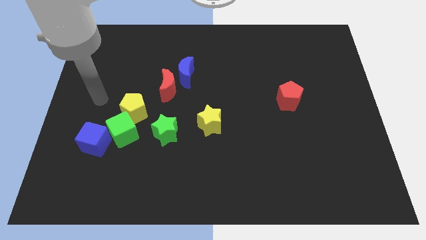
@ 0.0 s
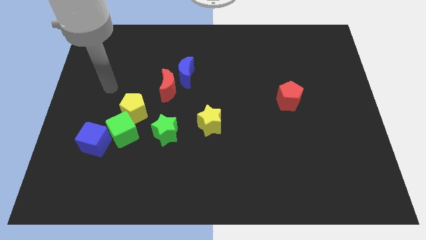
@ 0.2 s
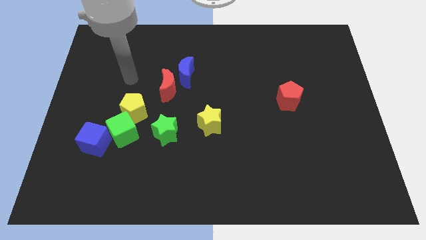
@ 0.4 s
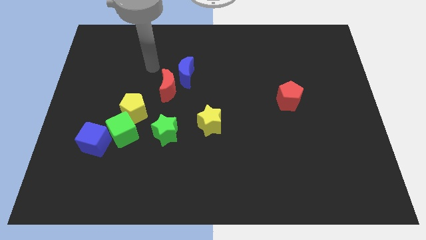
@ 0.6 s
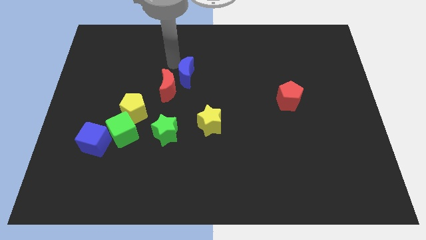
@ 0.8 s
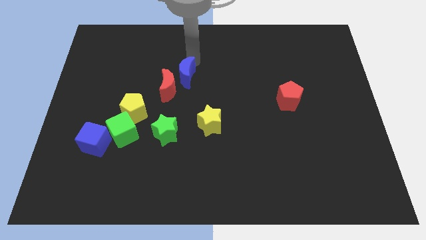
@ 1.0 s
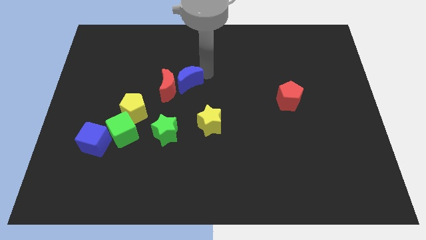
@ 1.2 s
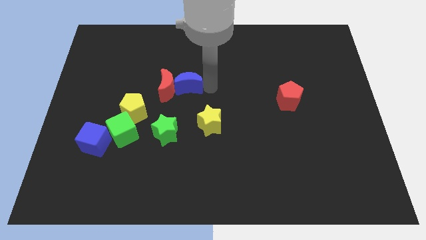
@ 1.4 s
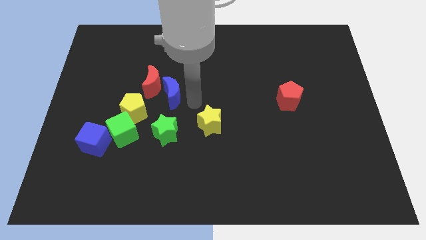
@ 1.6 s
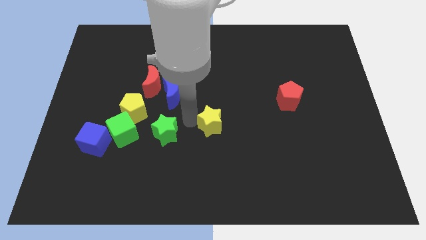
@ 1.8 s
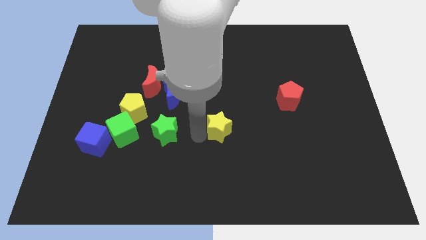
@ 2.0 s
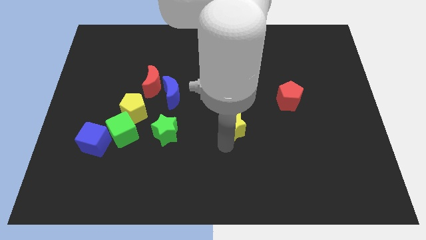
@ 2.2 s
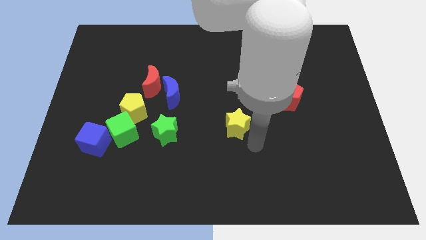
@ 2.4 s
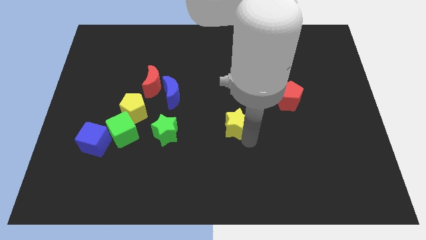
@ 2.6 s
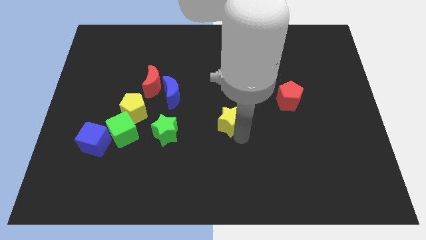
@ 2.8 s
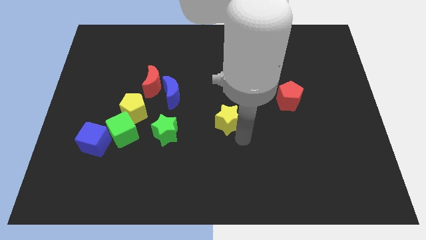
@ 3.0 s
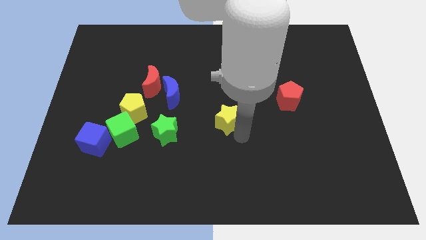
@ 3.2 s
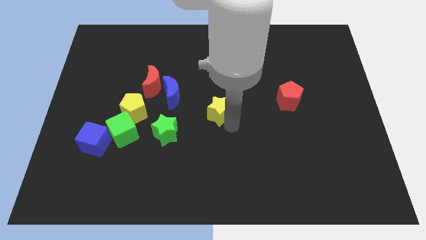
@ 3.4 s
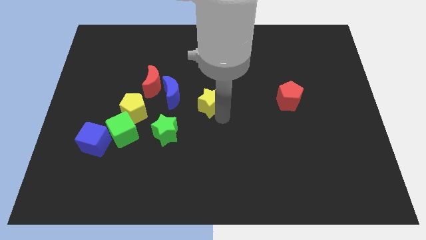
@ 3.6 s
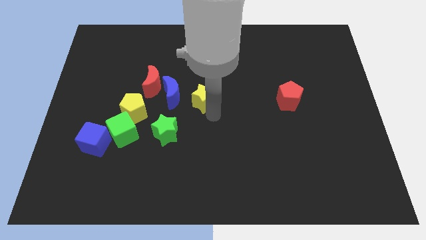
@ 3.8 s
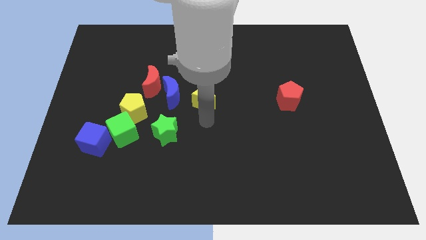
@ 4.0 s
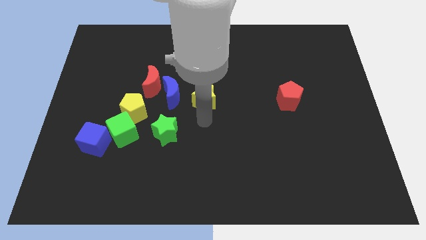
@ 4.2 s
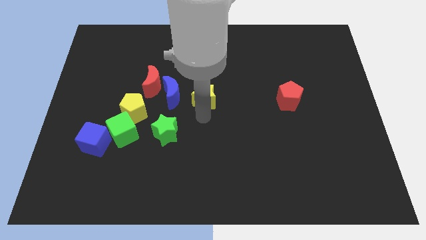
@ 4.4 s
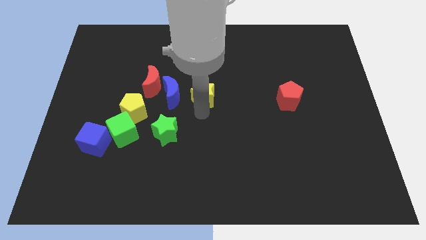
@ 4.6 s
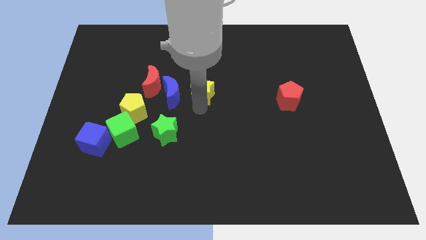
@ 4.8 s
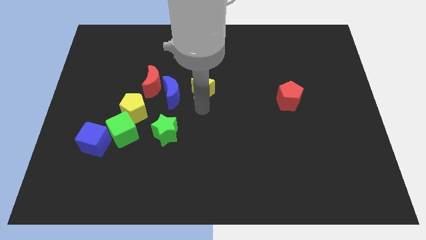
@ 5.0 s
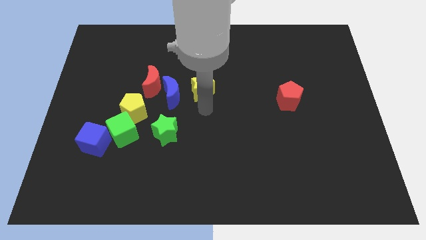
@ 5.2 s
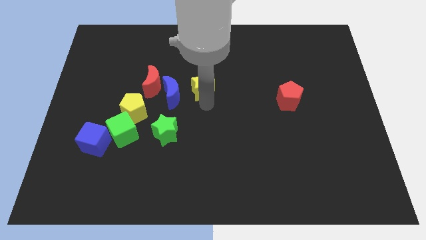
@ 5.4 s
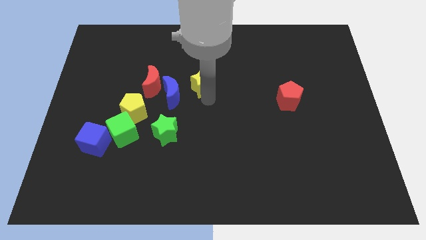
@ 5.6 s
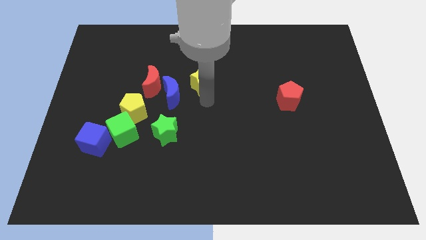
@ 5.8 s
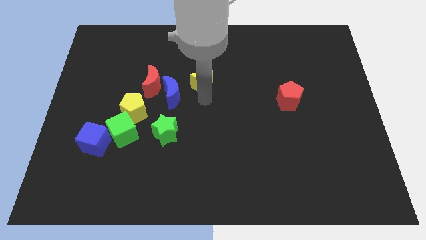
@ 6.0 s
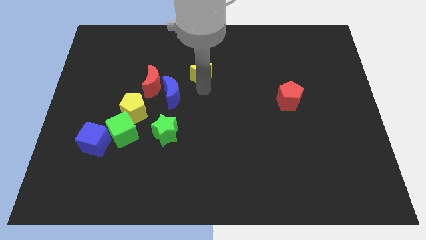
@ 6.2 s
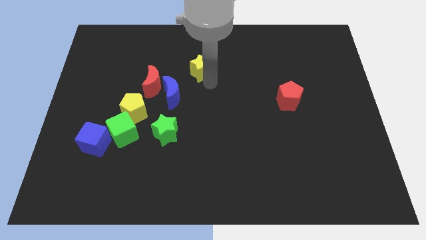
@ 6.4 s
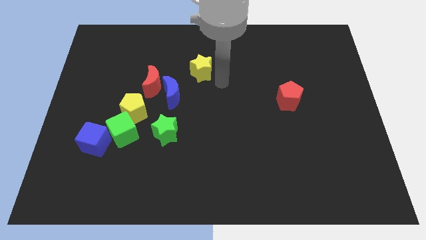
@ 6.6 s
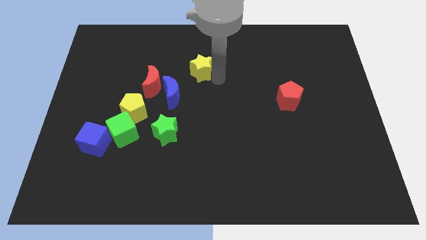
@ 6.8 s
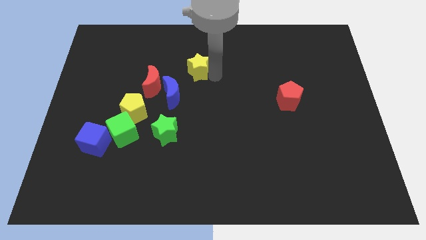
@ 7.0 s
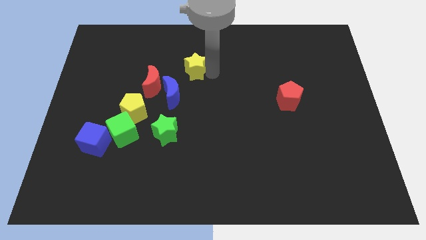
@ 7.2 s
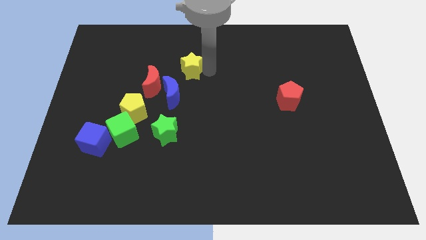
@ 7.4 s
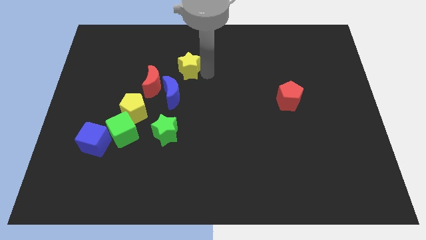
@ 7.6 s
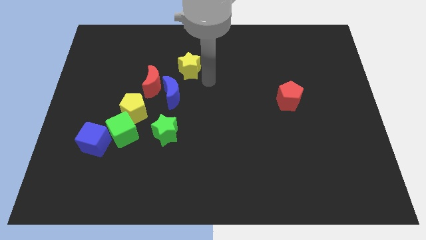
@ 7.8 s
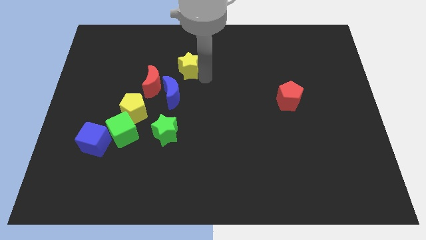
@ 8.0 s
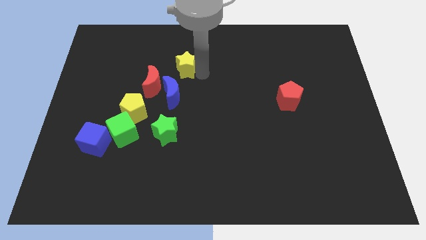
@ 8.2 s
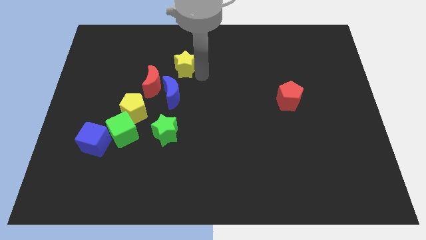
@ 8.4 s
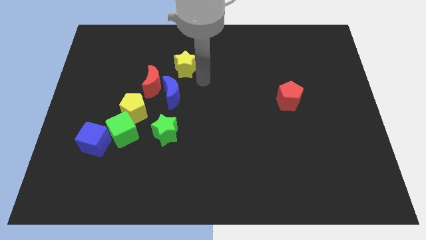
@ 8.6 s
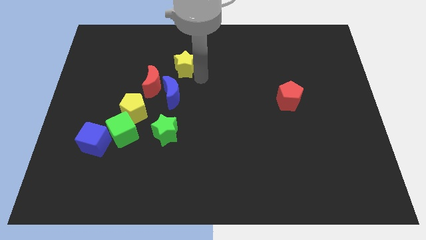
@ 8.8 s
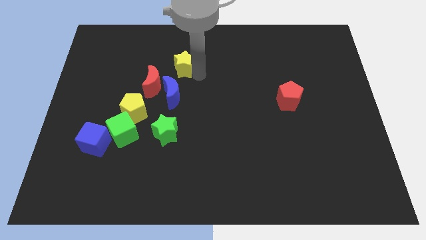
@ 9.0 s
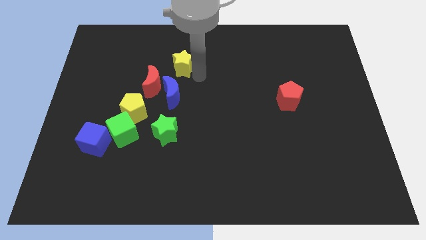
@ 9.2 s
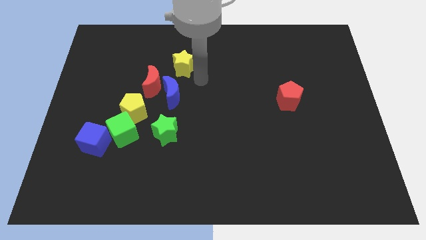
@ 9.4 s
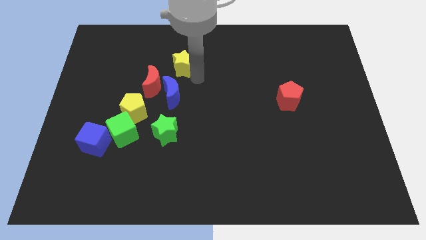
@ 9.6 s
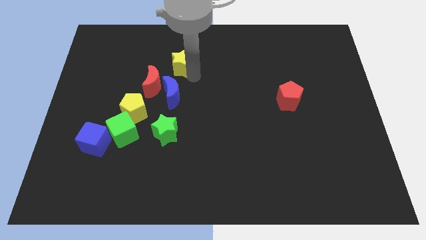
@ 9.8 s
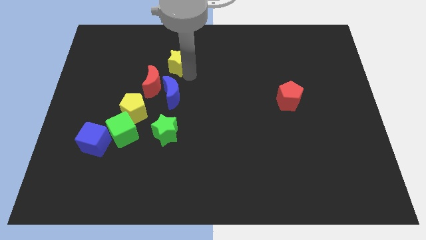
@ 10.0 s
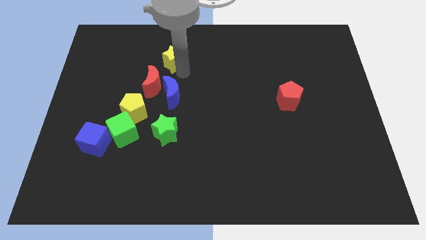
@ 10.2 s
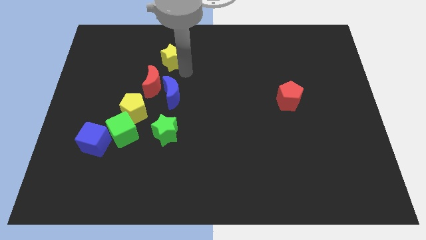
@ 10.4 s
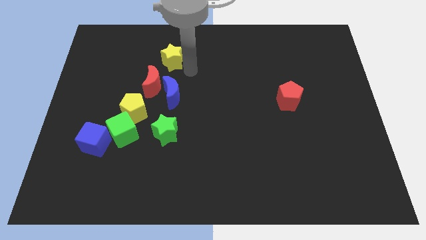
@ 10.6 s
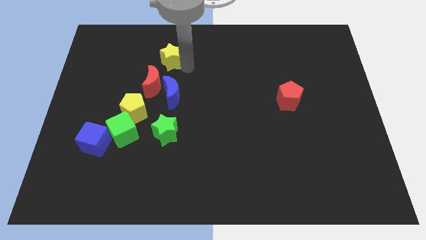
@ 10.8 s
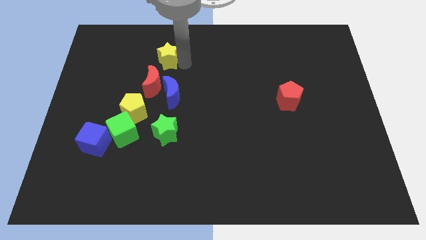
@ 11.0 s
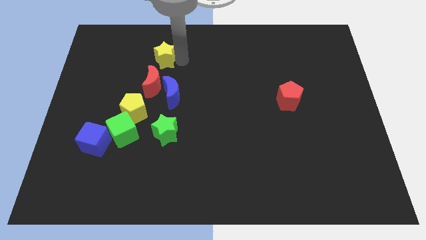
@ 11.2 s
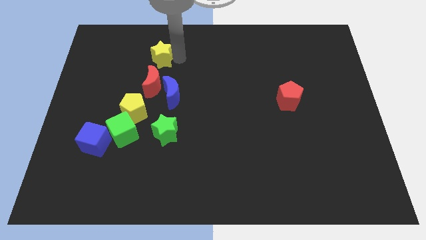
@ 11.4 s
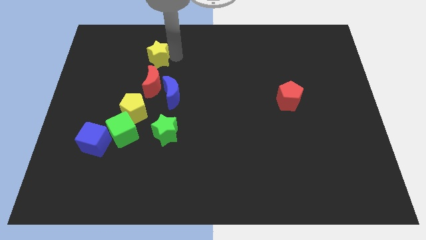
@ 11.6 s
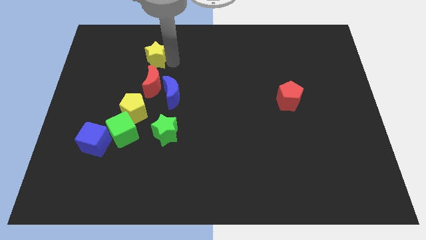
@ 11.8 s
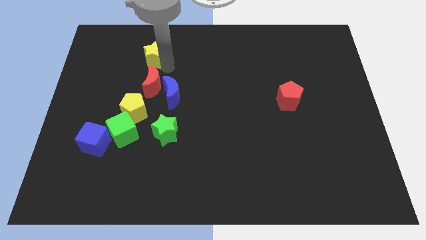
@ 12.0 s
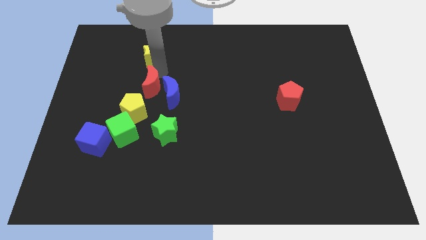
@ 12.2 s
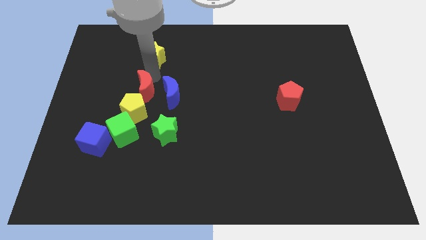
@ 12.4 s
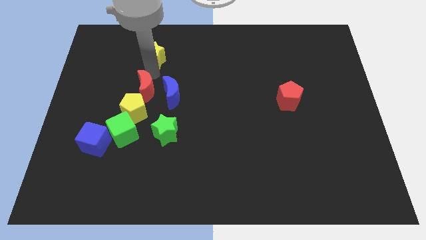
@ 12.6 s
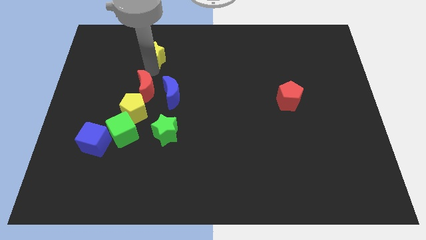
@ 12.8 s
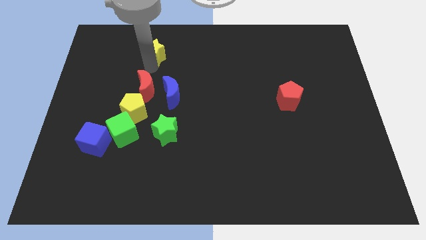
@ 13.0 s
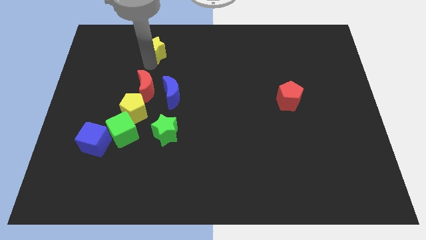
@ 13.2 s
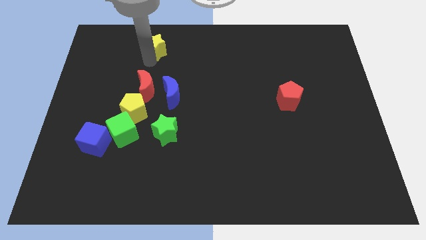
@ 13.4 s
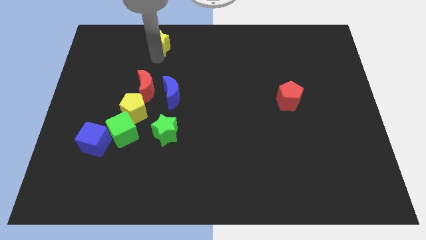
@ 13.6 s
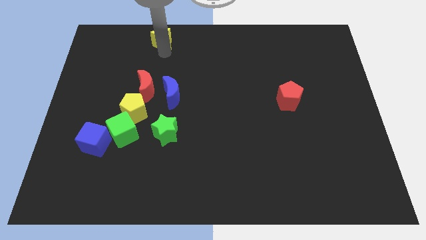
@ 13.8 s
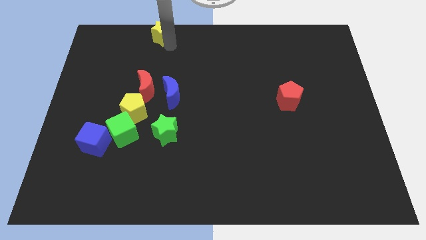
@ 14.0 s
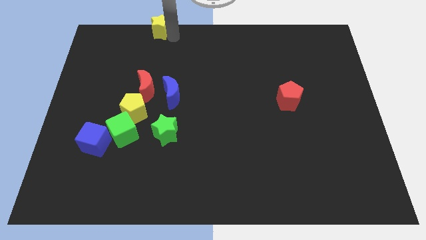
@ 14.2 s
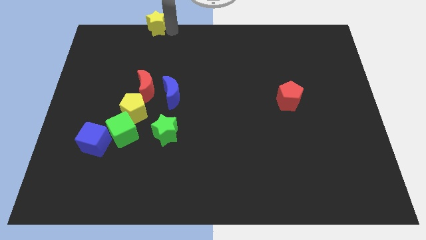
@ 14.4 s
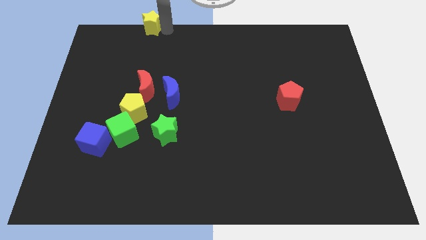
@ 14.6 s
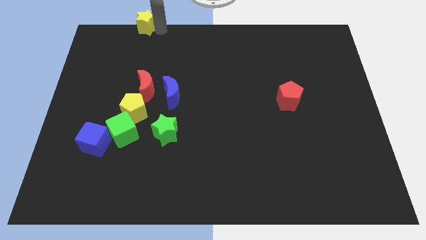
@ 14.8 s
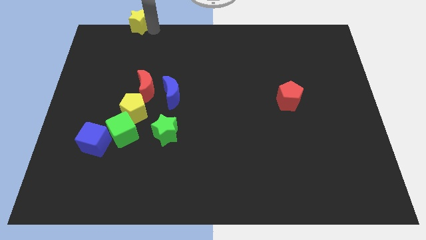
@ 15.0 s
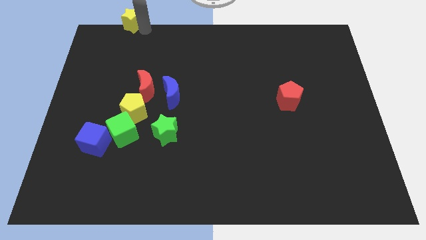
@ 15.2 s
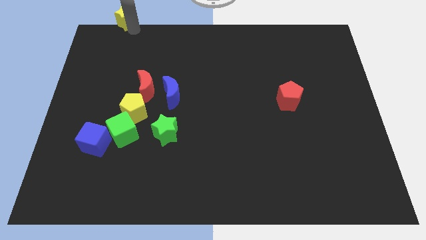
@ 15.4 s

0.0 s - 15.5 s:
move the yellow star to the upper left corner
